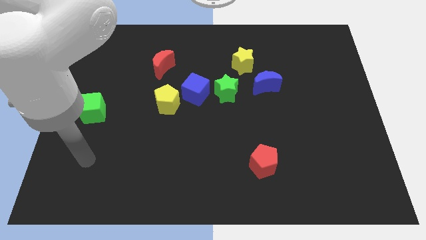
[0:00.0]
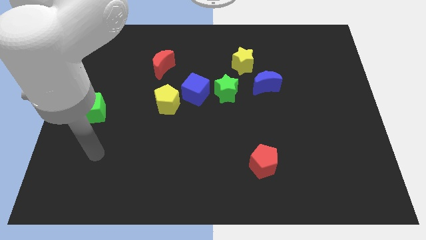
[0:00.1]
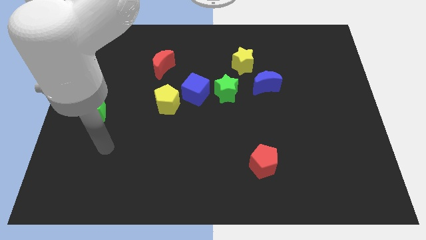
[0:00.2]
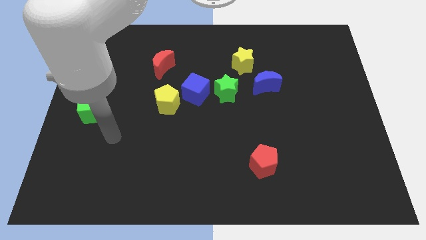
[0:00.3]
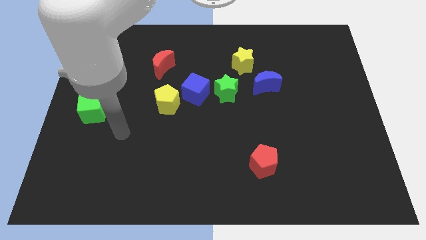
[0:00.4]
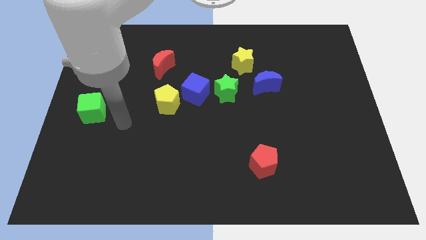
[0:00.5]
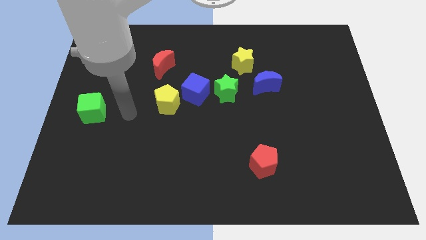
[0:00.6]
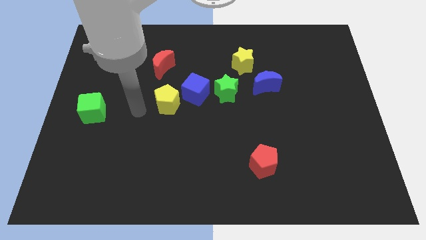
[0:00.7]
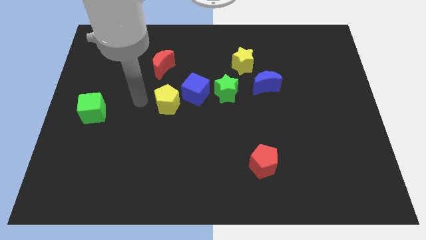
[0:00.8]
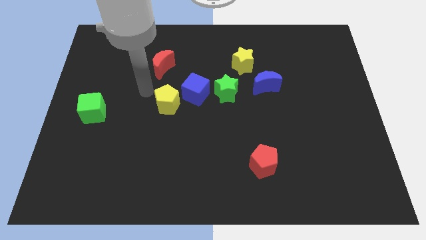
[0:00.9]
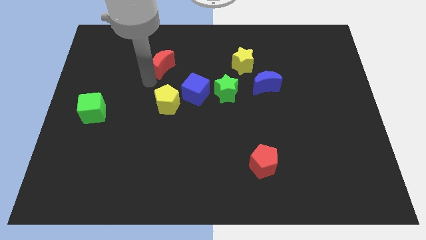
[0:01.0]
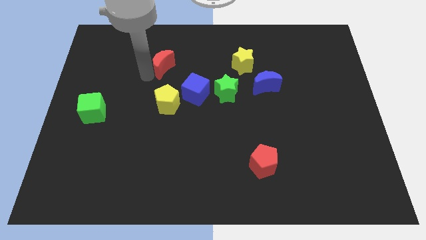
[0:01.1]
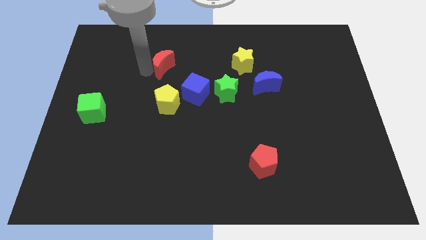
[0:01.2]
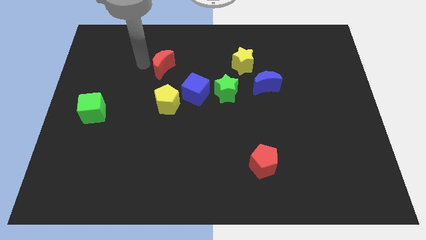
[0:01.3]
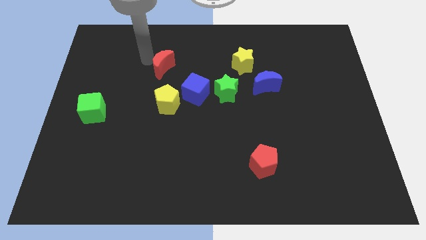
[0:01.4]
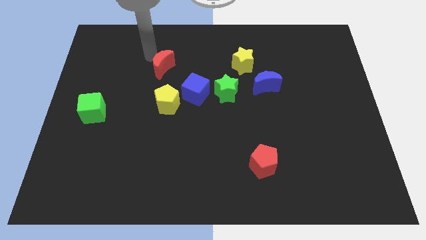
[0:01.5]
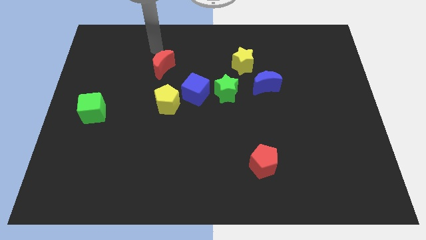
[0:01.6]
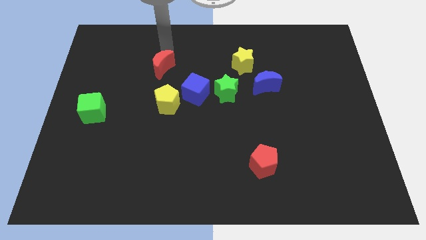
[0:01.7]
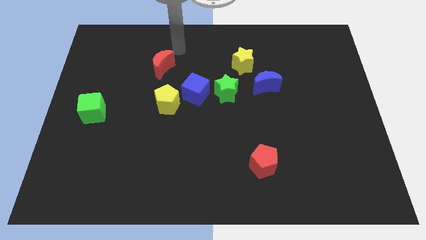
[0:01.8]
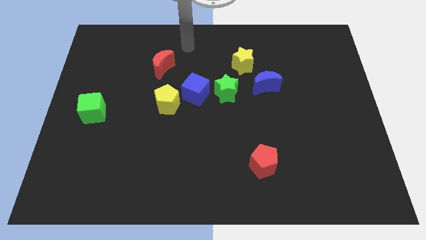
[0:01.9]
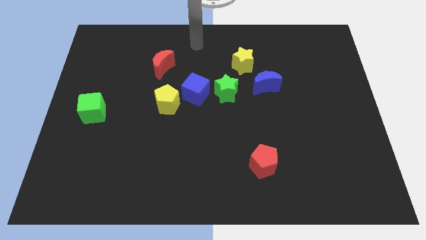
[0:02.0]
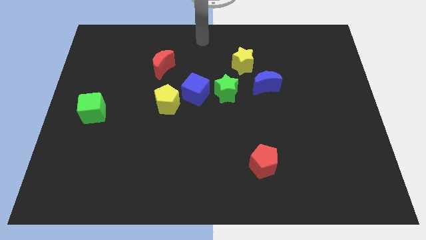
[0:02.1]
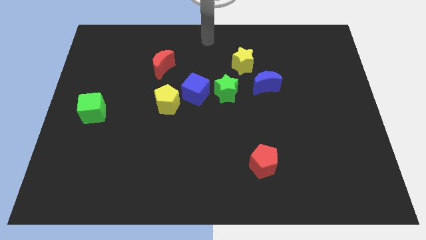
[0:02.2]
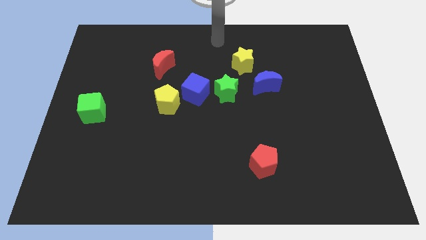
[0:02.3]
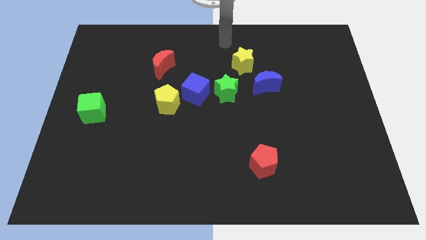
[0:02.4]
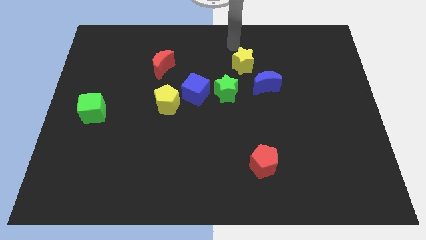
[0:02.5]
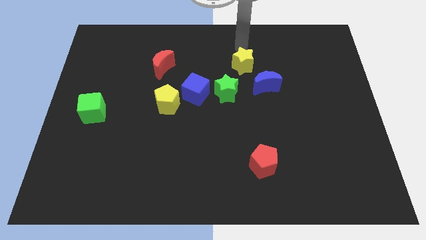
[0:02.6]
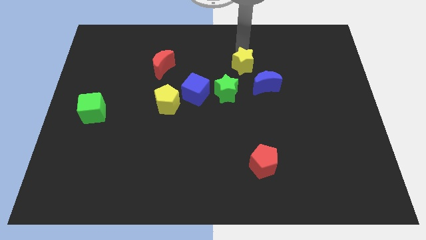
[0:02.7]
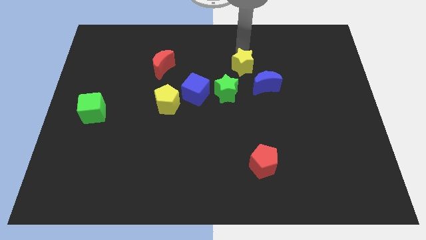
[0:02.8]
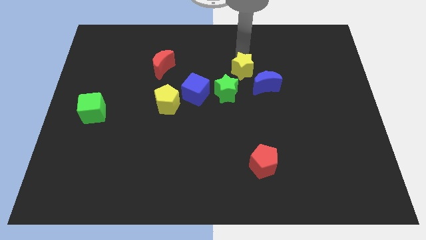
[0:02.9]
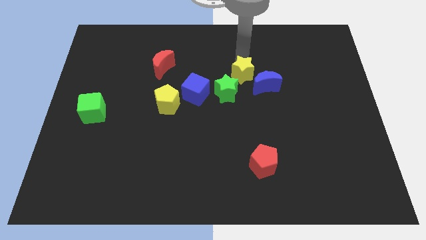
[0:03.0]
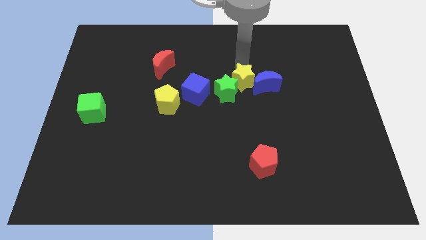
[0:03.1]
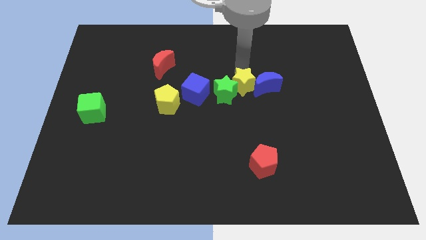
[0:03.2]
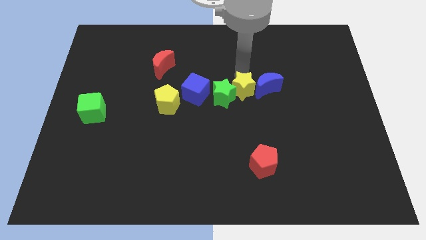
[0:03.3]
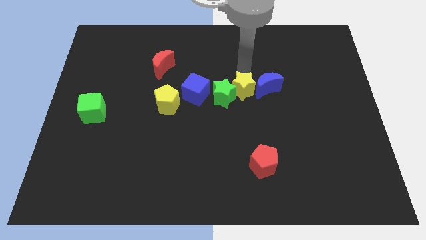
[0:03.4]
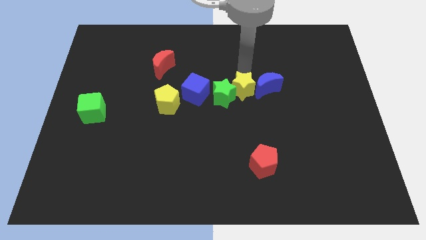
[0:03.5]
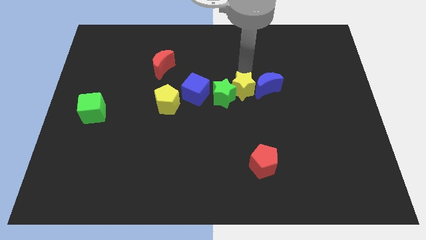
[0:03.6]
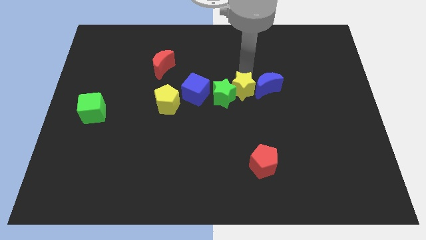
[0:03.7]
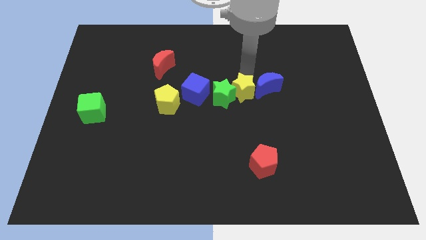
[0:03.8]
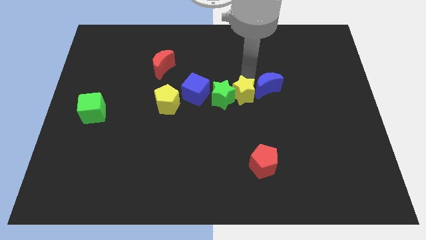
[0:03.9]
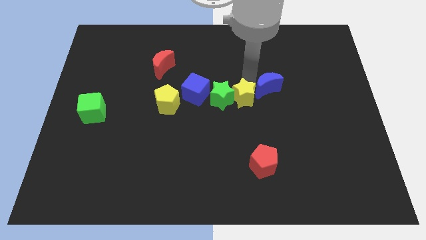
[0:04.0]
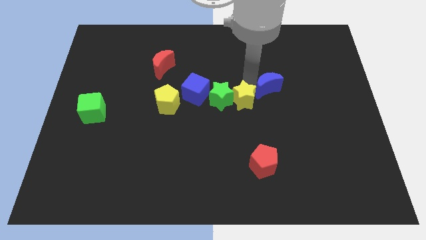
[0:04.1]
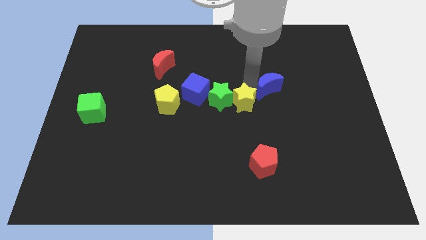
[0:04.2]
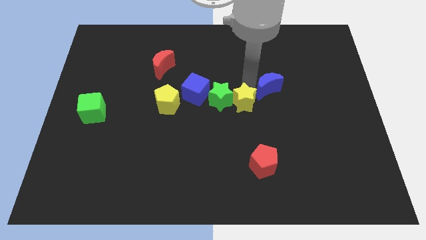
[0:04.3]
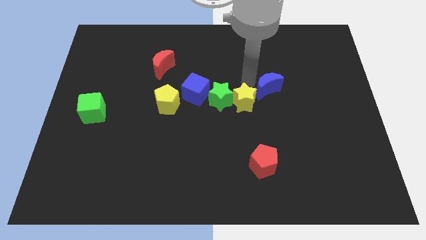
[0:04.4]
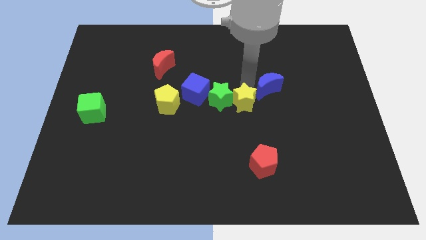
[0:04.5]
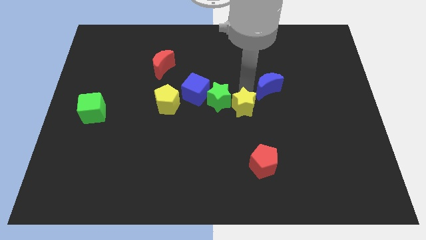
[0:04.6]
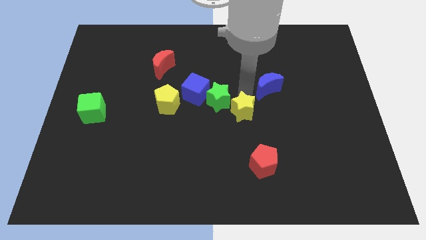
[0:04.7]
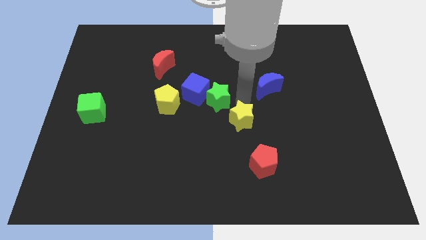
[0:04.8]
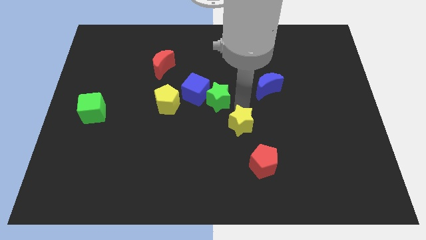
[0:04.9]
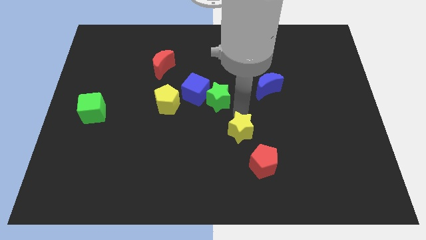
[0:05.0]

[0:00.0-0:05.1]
slide the yellow star down

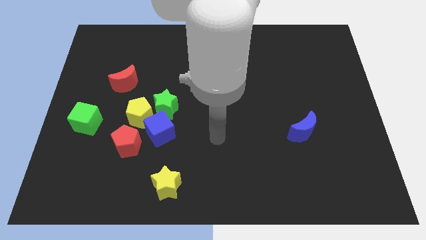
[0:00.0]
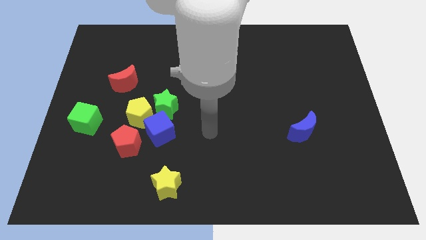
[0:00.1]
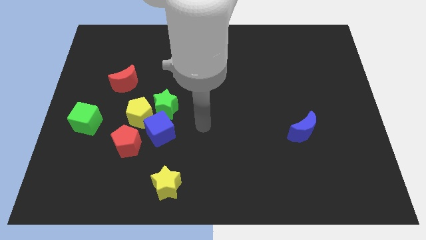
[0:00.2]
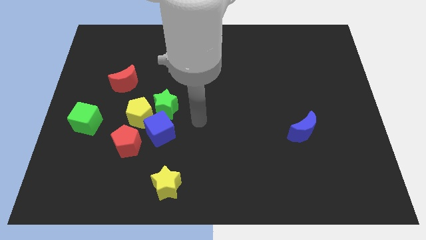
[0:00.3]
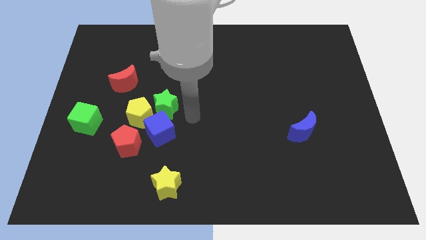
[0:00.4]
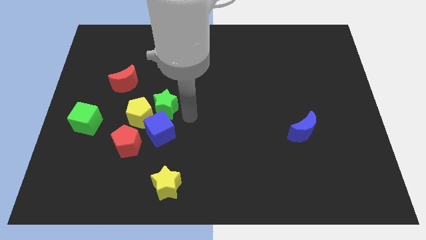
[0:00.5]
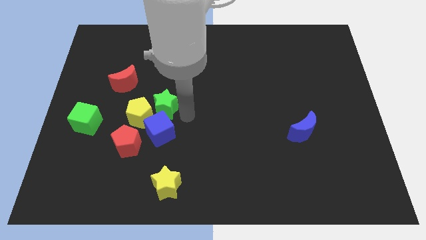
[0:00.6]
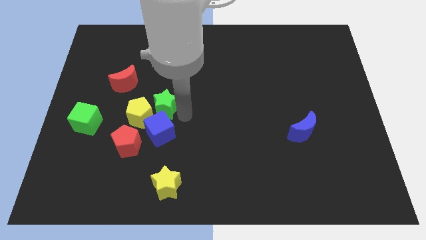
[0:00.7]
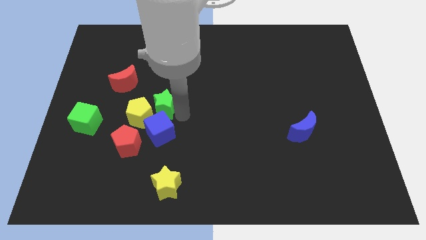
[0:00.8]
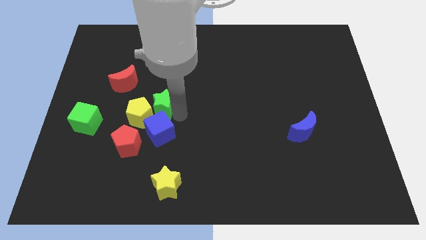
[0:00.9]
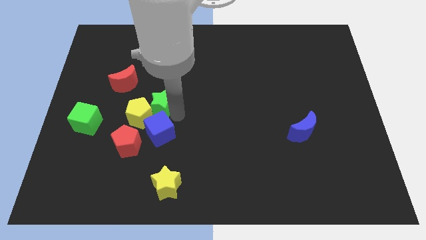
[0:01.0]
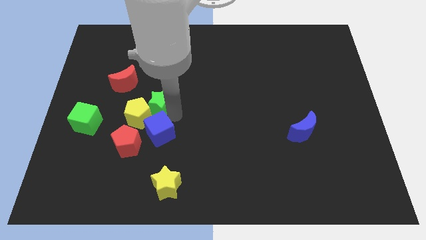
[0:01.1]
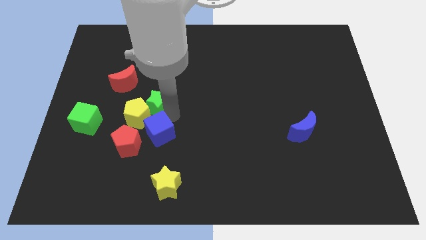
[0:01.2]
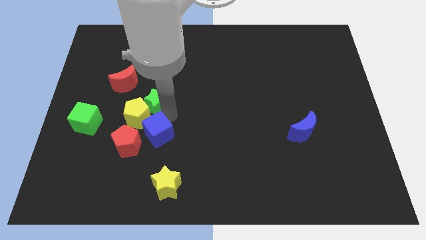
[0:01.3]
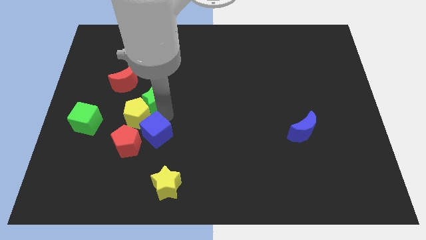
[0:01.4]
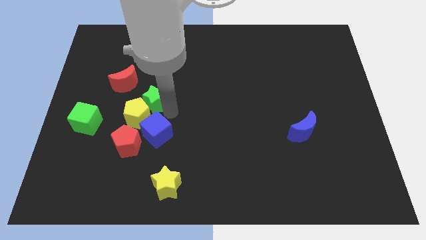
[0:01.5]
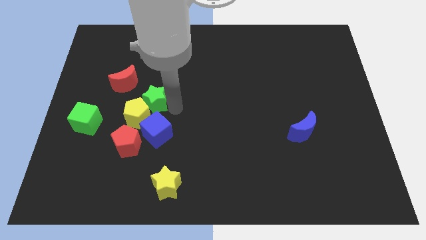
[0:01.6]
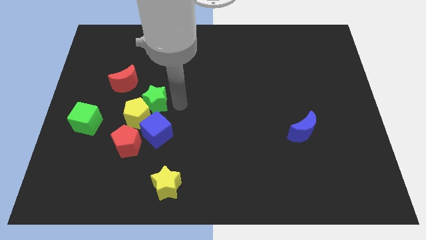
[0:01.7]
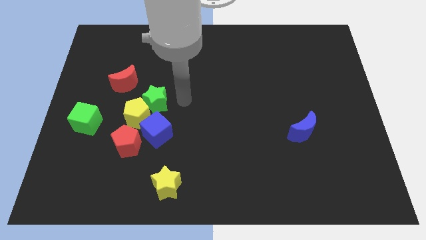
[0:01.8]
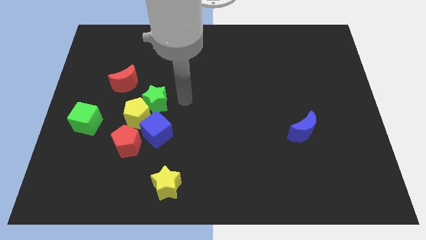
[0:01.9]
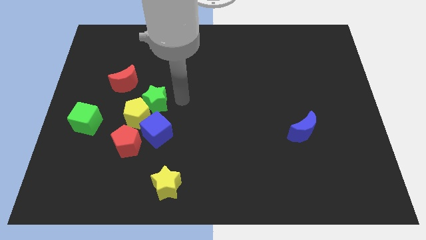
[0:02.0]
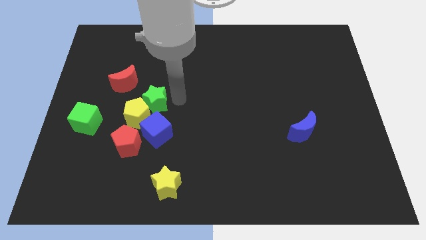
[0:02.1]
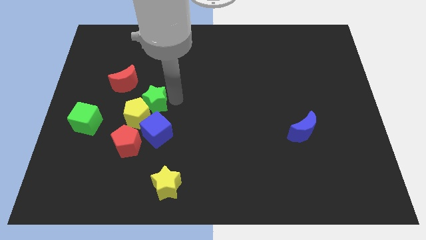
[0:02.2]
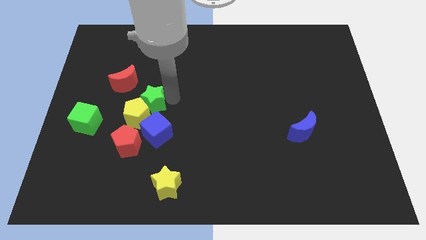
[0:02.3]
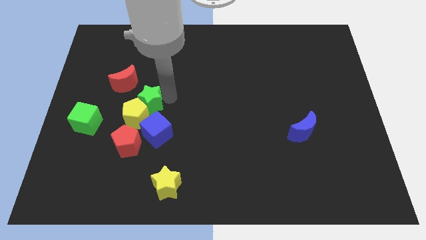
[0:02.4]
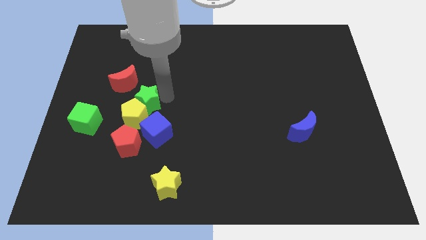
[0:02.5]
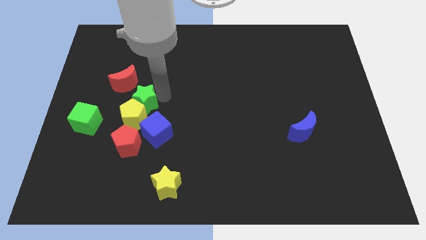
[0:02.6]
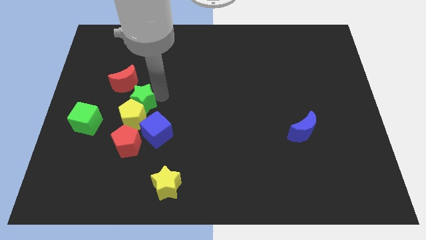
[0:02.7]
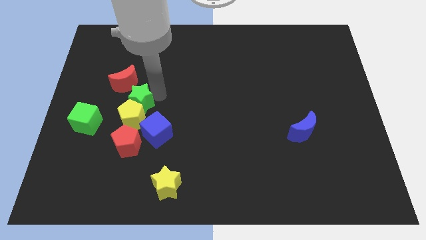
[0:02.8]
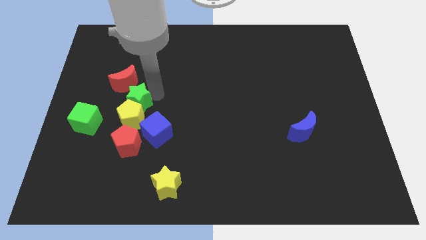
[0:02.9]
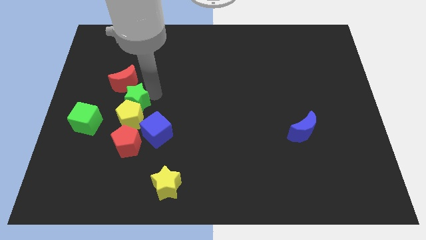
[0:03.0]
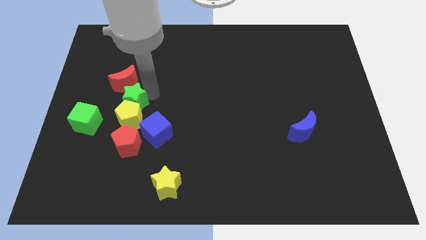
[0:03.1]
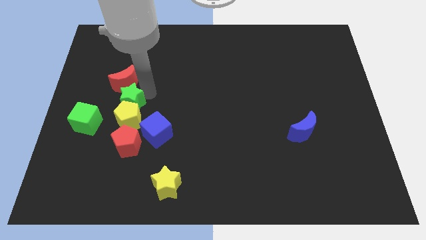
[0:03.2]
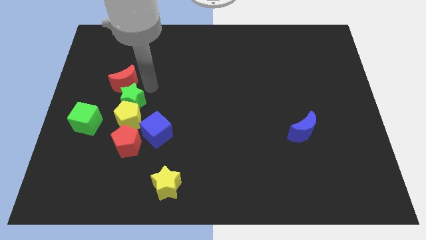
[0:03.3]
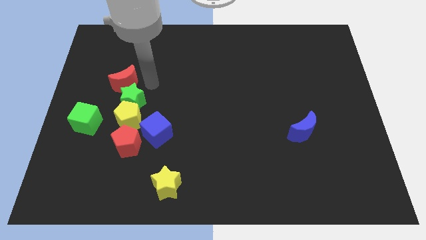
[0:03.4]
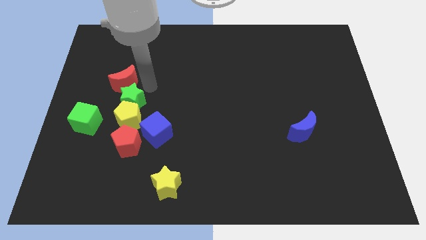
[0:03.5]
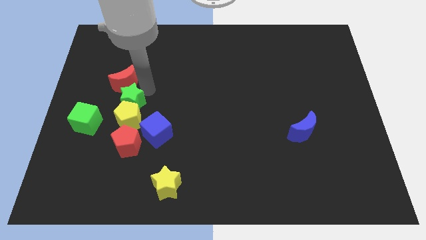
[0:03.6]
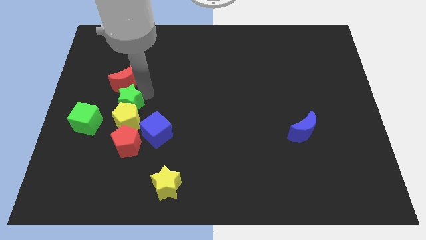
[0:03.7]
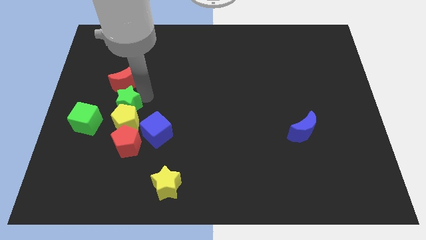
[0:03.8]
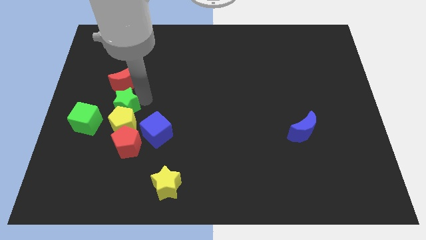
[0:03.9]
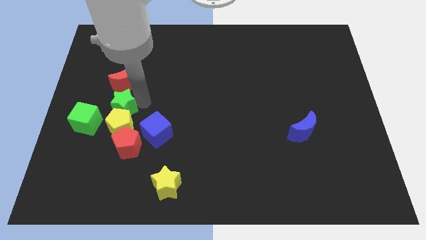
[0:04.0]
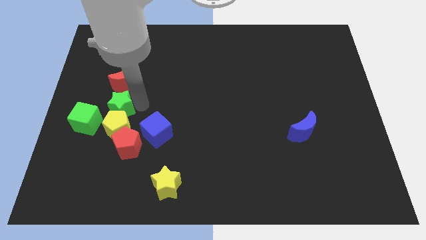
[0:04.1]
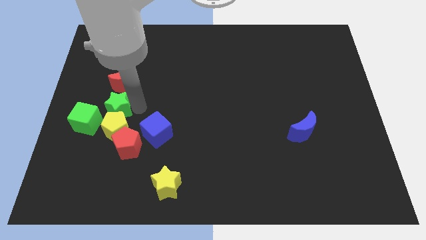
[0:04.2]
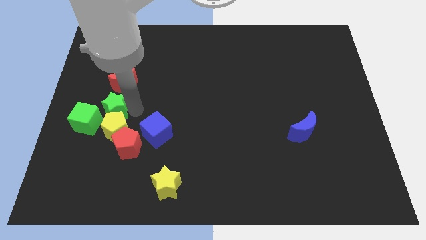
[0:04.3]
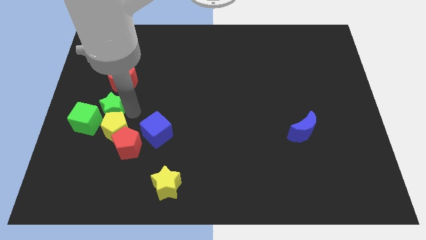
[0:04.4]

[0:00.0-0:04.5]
slightly slide the green star diagonally downwards and to the left
